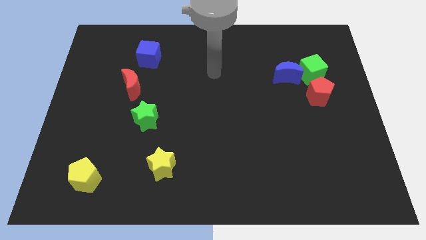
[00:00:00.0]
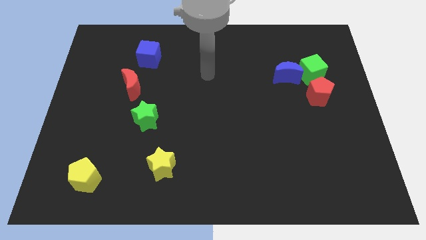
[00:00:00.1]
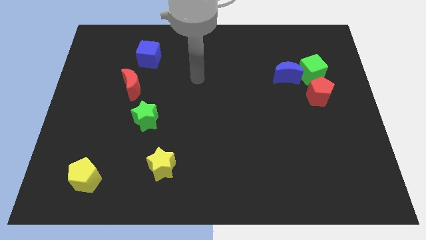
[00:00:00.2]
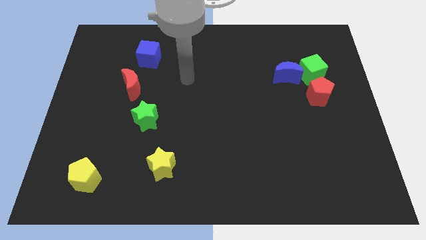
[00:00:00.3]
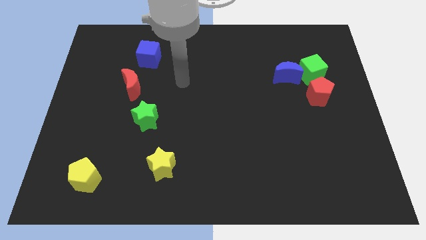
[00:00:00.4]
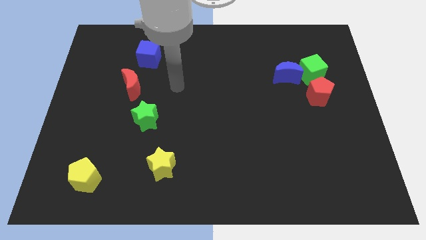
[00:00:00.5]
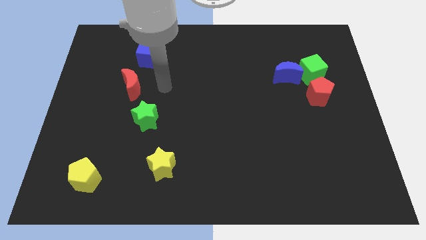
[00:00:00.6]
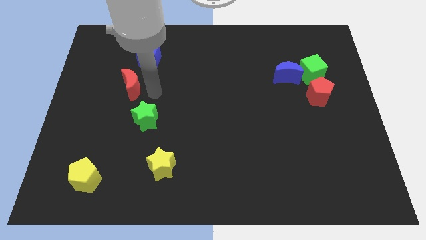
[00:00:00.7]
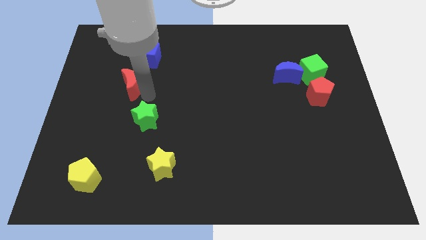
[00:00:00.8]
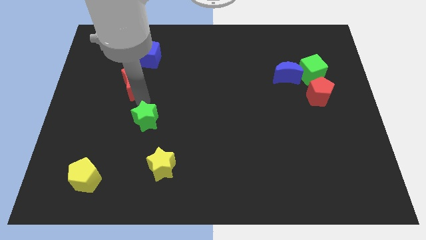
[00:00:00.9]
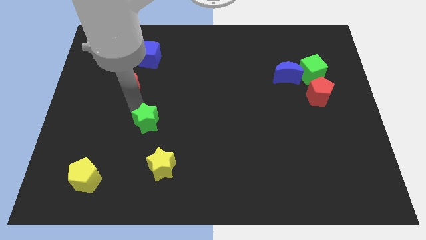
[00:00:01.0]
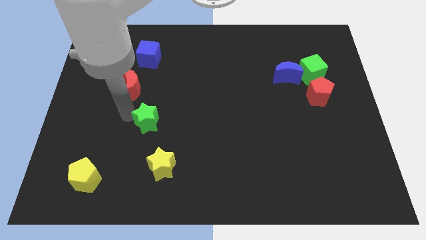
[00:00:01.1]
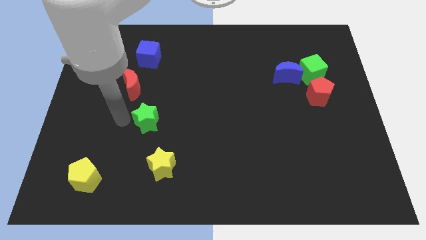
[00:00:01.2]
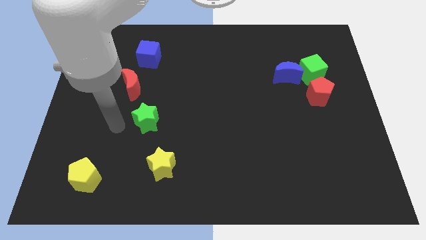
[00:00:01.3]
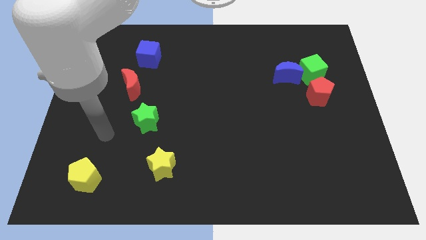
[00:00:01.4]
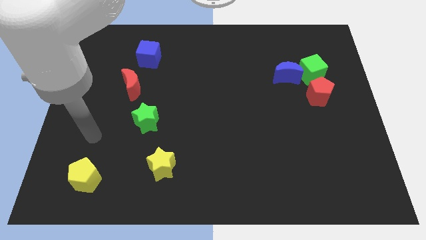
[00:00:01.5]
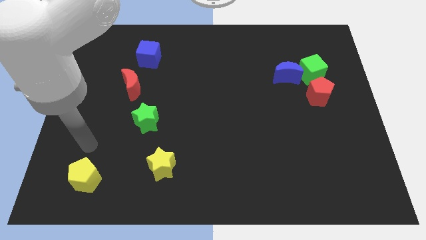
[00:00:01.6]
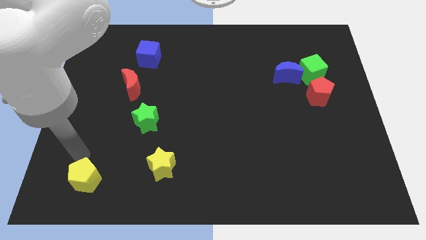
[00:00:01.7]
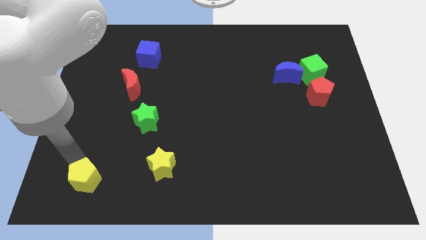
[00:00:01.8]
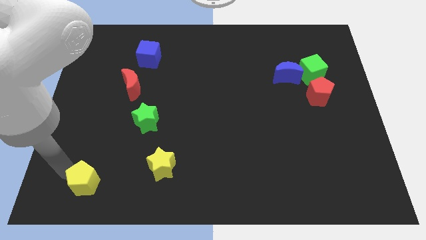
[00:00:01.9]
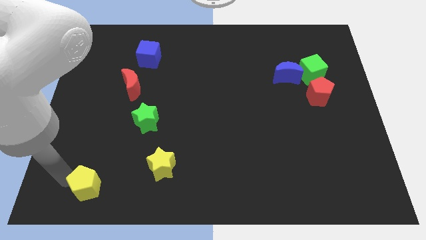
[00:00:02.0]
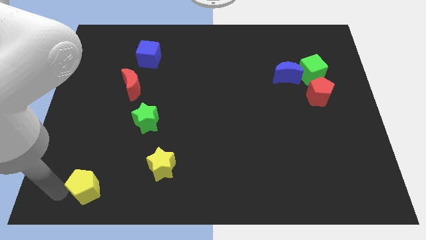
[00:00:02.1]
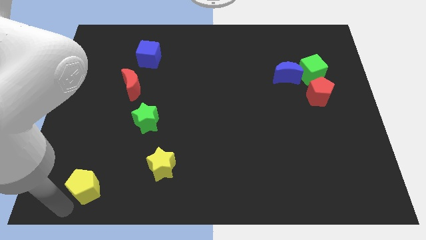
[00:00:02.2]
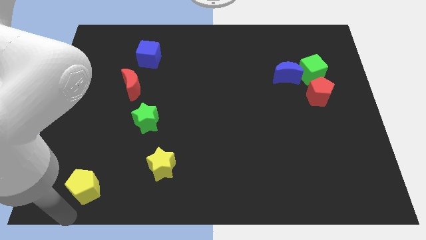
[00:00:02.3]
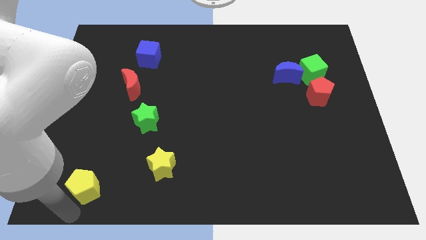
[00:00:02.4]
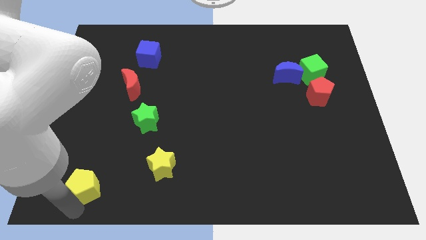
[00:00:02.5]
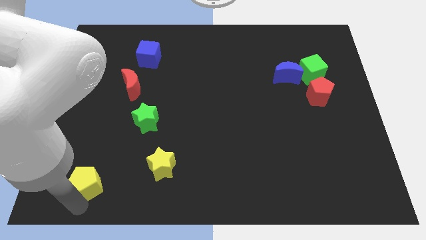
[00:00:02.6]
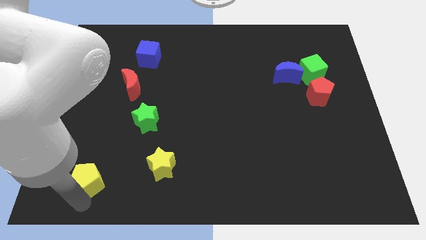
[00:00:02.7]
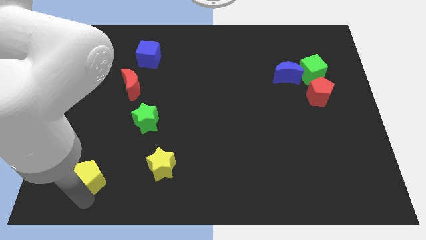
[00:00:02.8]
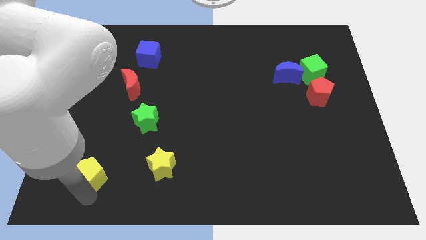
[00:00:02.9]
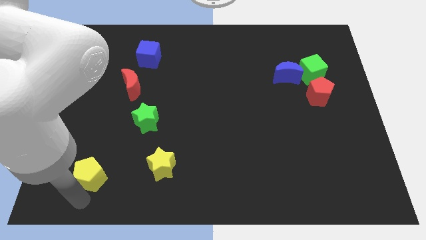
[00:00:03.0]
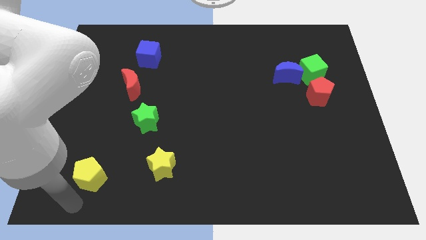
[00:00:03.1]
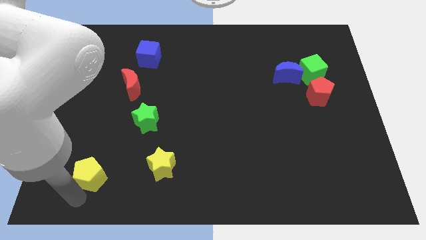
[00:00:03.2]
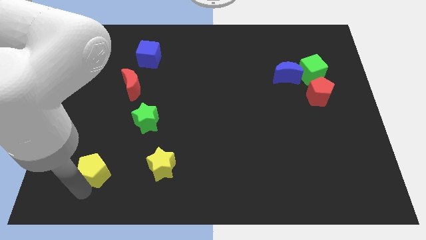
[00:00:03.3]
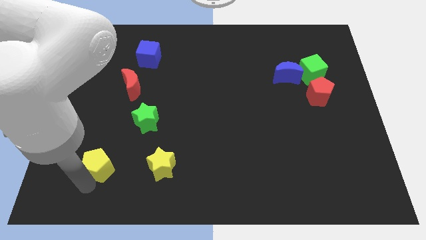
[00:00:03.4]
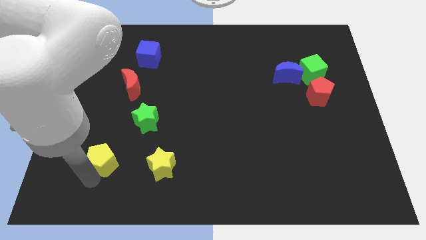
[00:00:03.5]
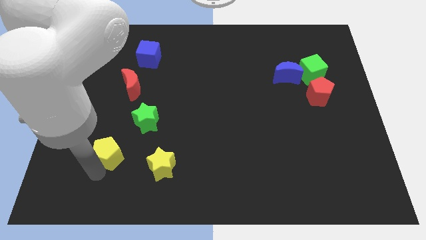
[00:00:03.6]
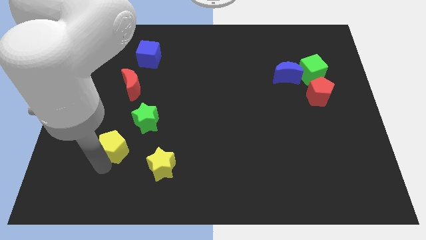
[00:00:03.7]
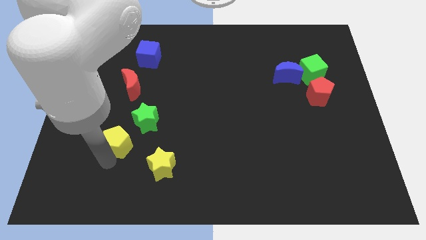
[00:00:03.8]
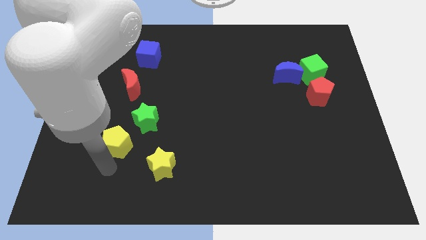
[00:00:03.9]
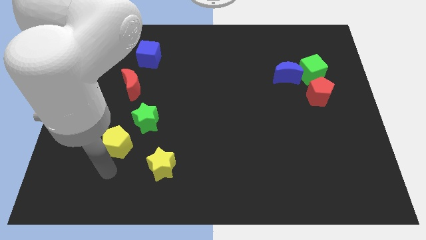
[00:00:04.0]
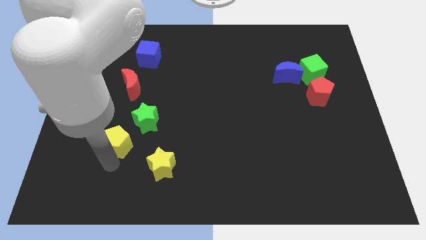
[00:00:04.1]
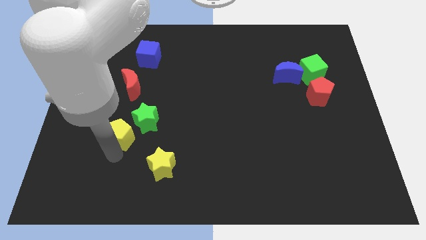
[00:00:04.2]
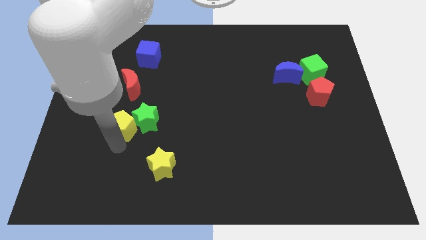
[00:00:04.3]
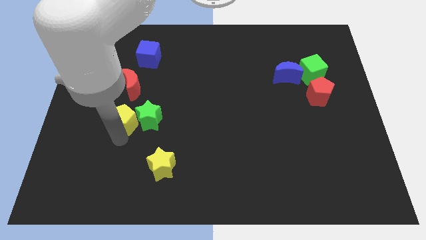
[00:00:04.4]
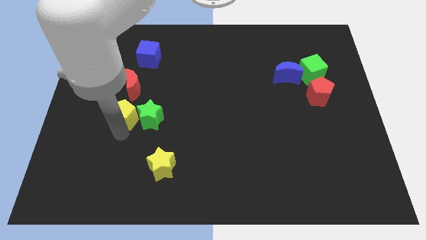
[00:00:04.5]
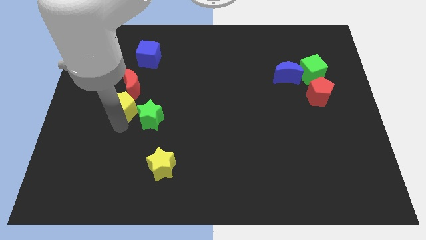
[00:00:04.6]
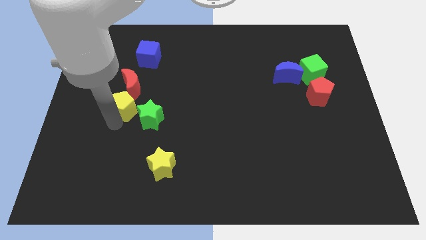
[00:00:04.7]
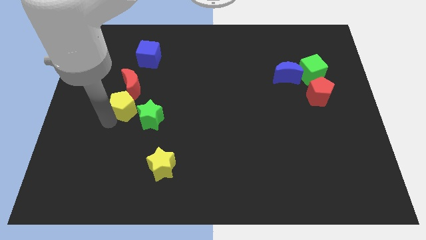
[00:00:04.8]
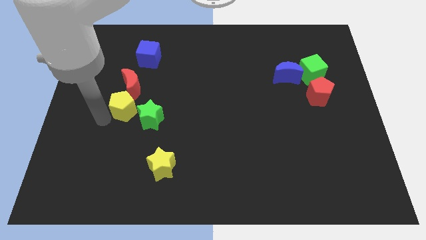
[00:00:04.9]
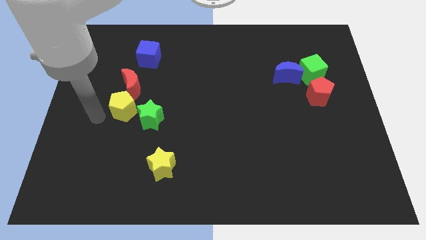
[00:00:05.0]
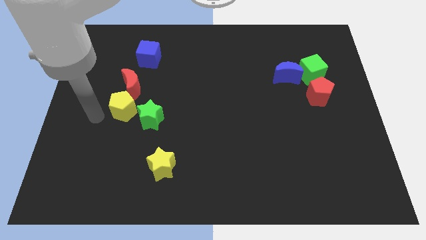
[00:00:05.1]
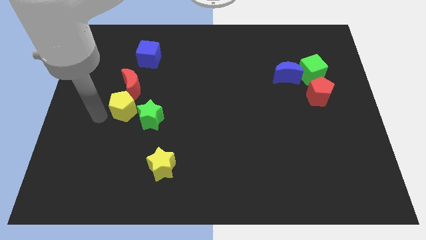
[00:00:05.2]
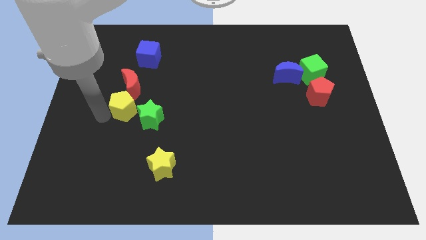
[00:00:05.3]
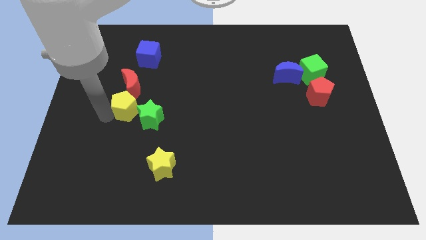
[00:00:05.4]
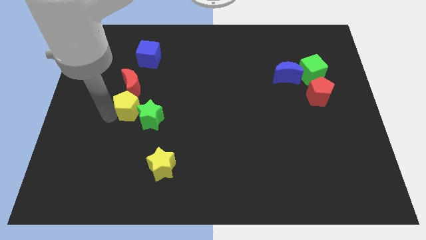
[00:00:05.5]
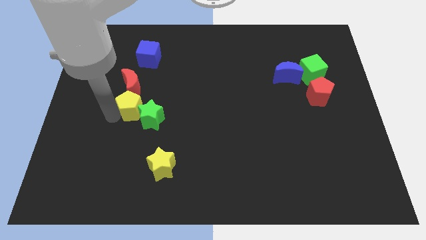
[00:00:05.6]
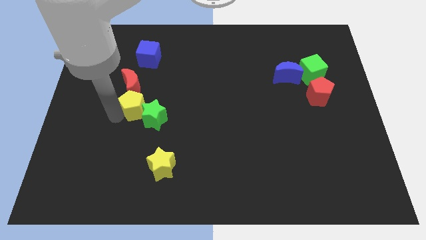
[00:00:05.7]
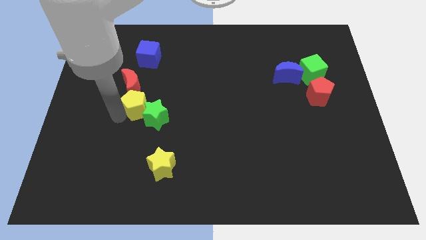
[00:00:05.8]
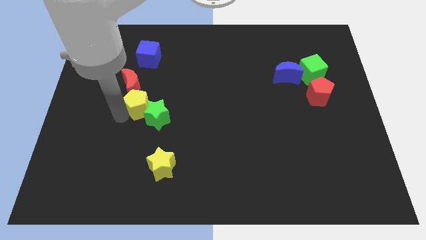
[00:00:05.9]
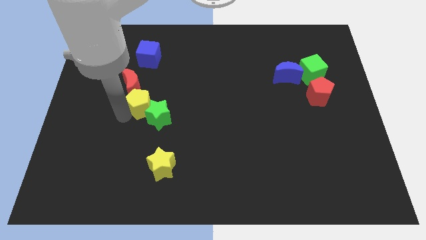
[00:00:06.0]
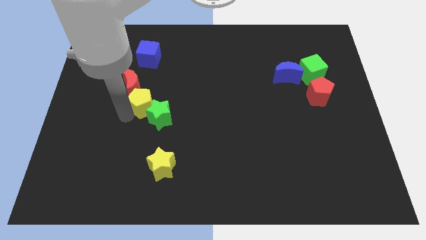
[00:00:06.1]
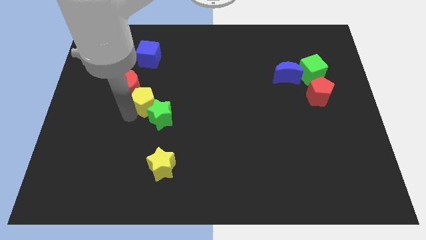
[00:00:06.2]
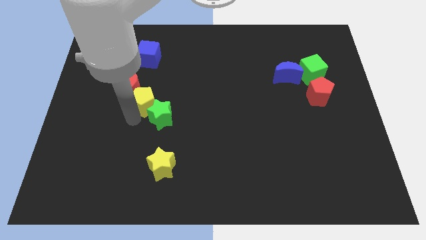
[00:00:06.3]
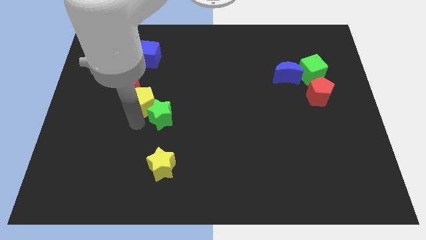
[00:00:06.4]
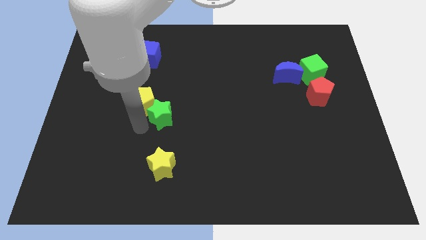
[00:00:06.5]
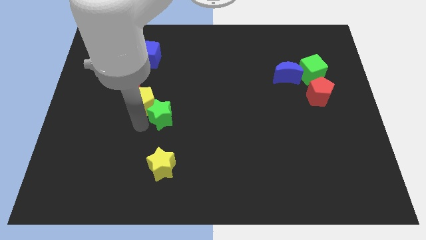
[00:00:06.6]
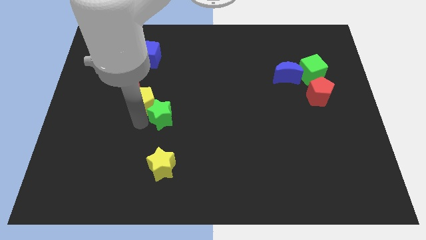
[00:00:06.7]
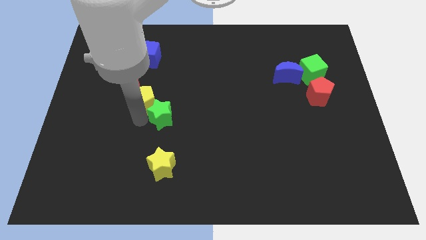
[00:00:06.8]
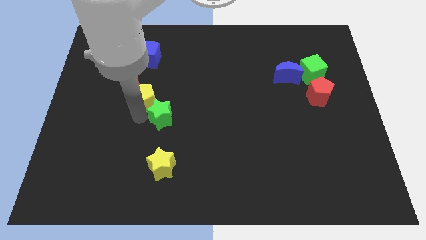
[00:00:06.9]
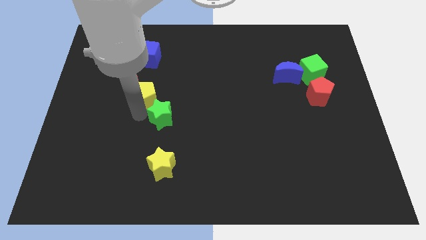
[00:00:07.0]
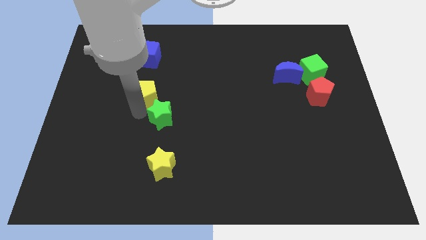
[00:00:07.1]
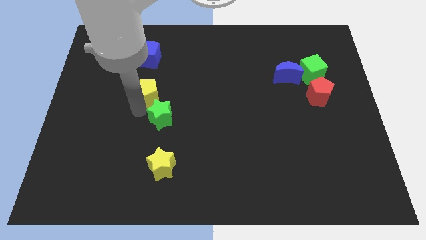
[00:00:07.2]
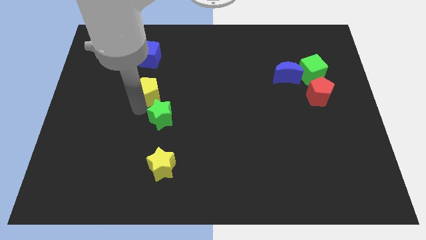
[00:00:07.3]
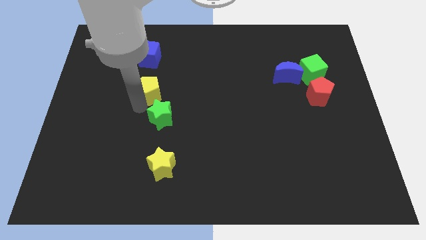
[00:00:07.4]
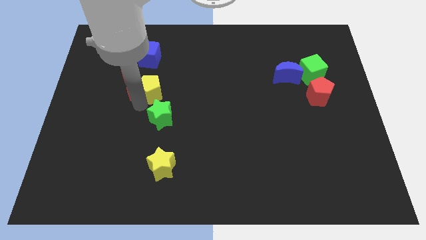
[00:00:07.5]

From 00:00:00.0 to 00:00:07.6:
push the yellow pentagon to the top right of the red moon

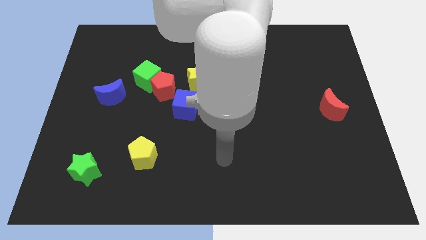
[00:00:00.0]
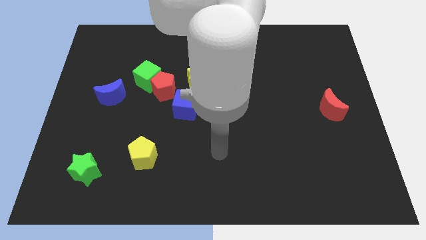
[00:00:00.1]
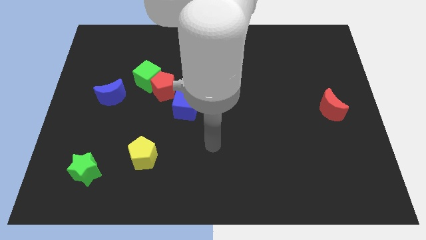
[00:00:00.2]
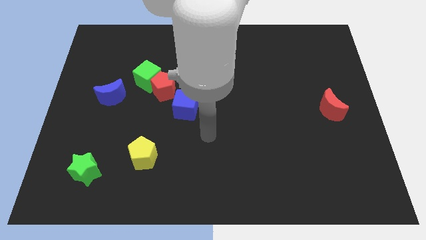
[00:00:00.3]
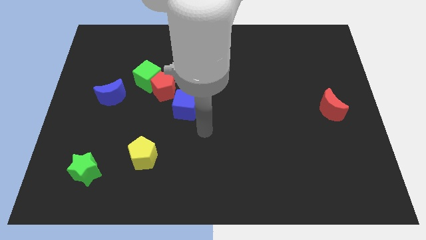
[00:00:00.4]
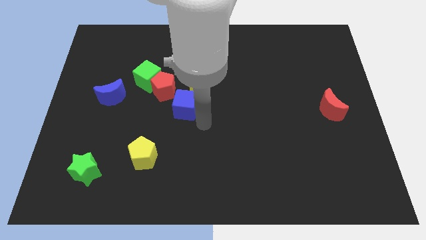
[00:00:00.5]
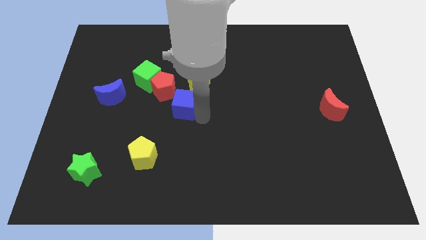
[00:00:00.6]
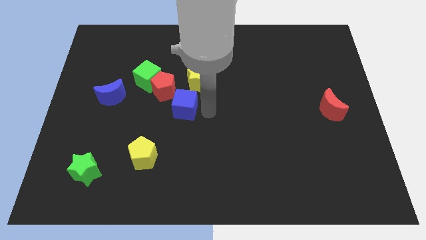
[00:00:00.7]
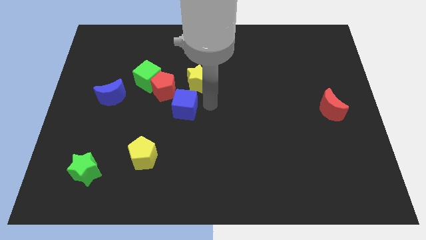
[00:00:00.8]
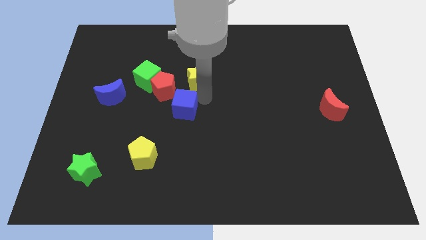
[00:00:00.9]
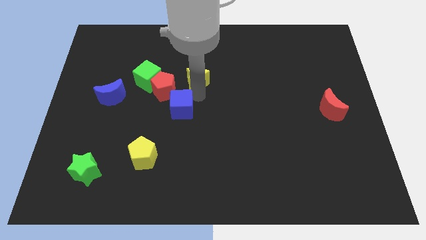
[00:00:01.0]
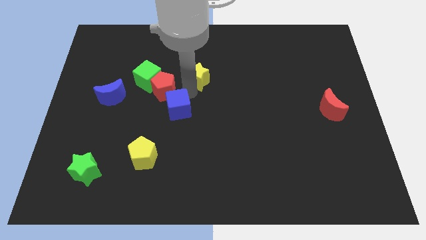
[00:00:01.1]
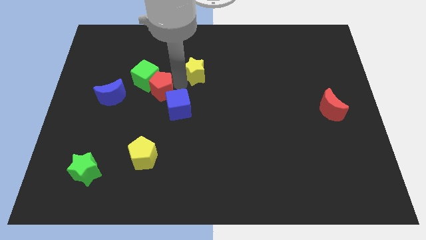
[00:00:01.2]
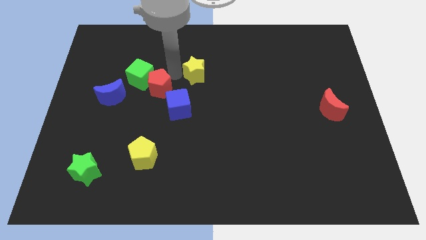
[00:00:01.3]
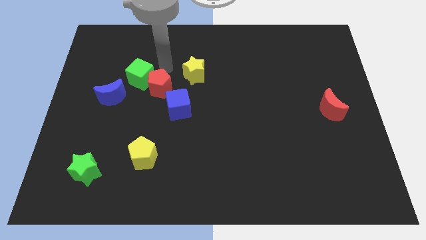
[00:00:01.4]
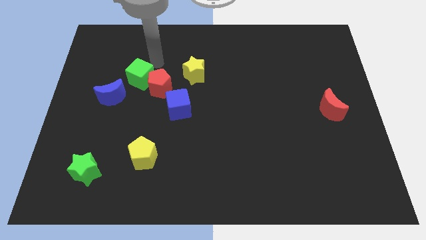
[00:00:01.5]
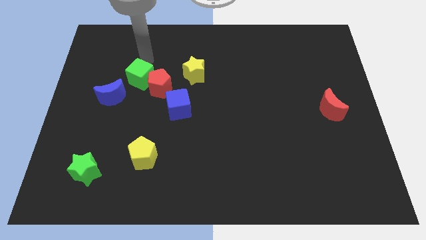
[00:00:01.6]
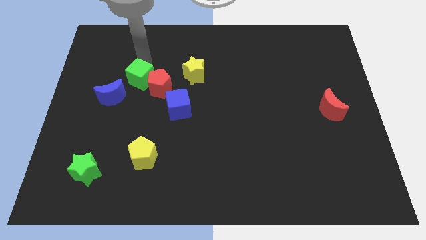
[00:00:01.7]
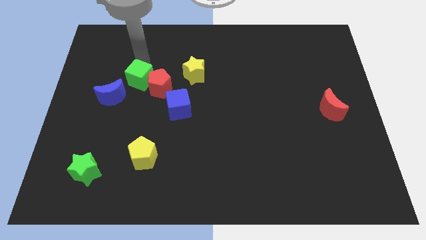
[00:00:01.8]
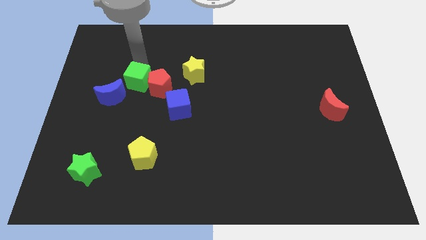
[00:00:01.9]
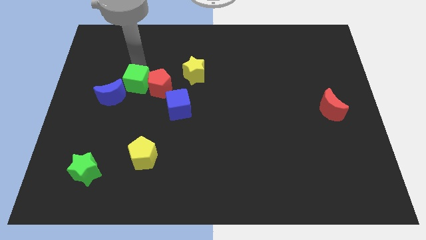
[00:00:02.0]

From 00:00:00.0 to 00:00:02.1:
move the green cube to the bottom left side of the red pentagon
